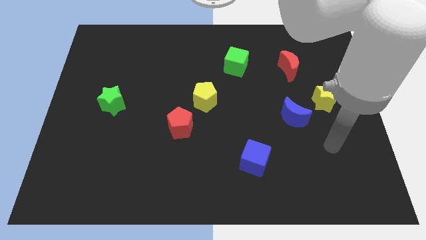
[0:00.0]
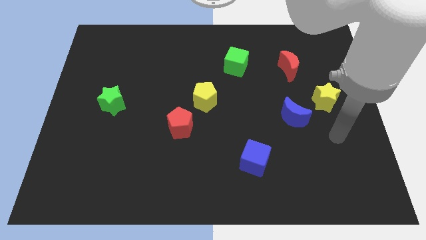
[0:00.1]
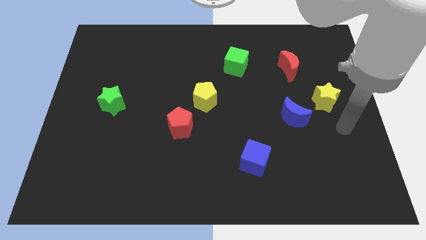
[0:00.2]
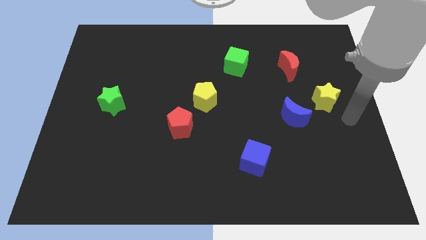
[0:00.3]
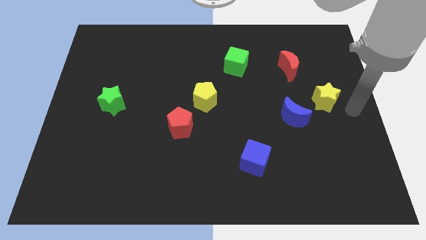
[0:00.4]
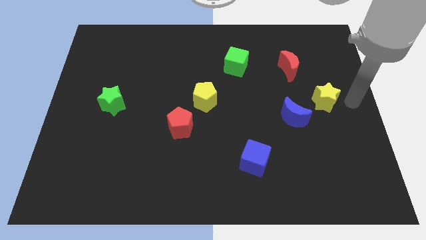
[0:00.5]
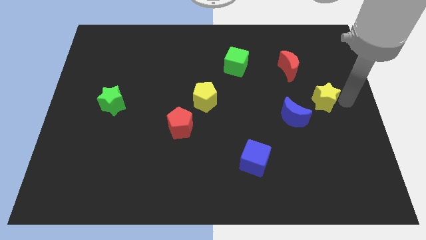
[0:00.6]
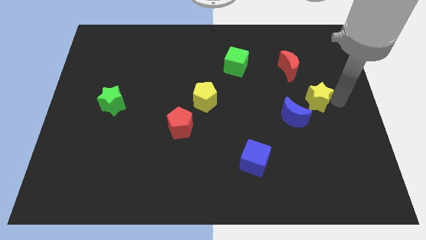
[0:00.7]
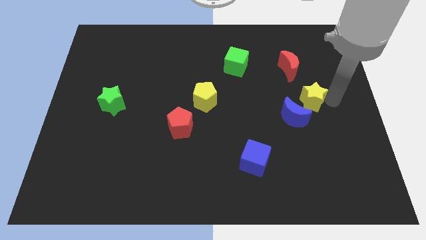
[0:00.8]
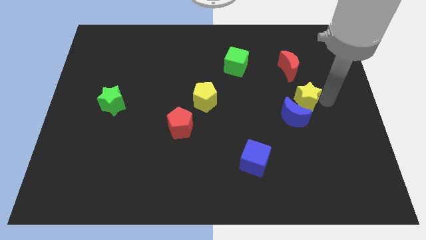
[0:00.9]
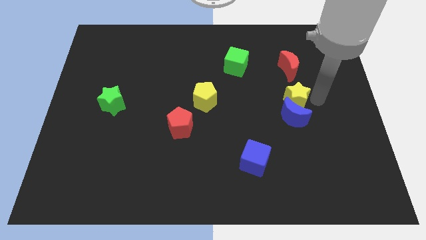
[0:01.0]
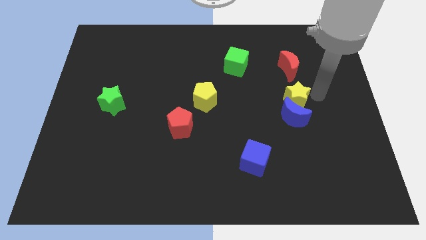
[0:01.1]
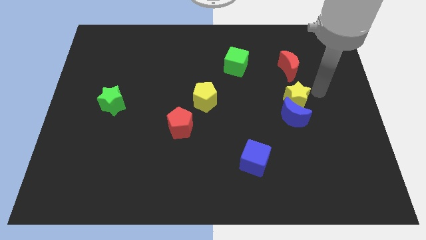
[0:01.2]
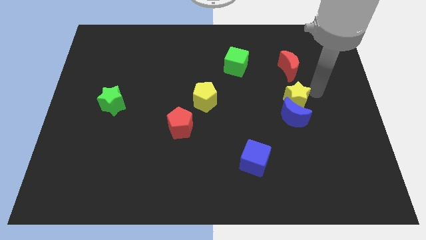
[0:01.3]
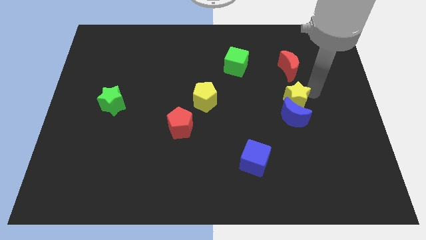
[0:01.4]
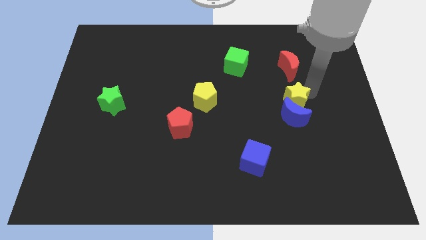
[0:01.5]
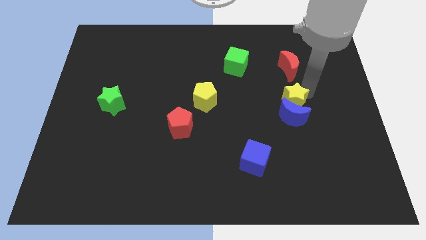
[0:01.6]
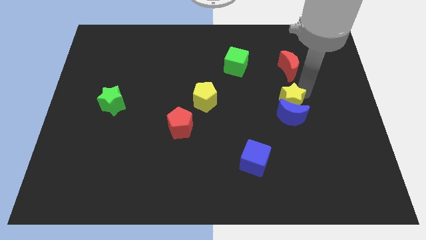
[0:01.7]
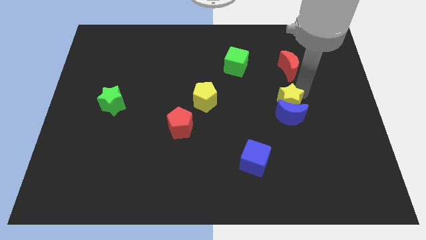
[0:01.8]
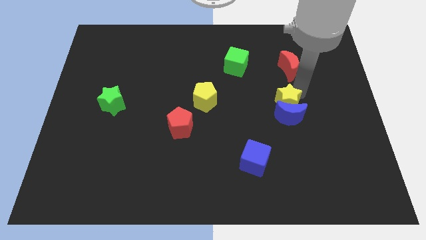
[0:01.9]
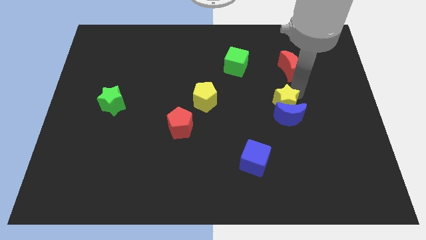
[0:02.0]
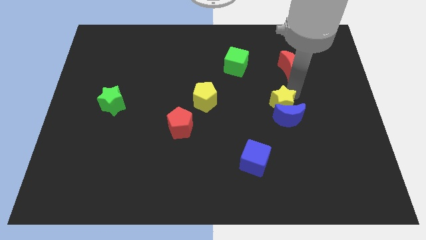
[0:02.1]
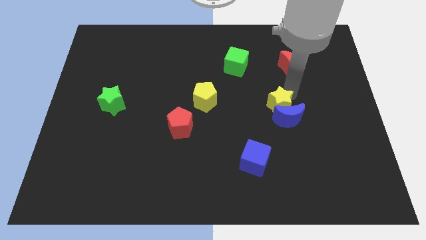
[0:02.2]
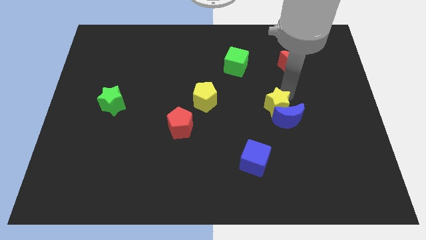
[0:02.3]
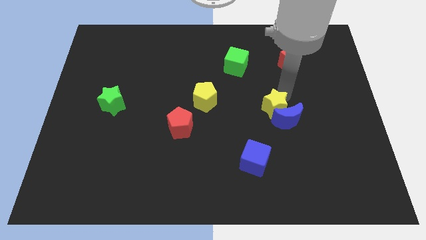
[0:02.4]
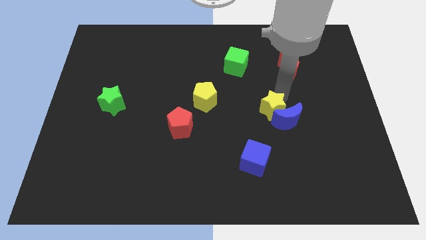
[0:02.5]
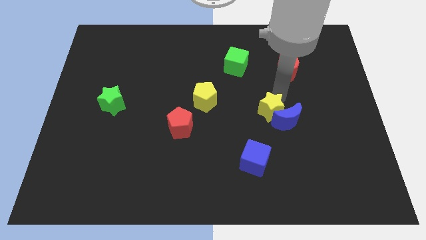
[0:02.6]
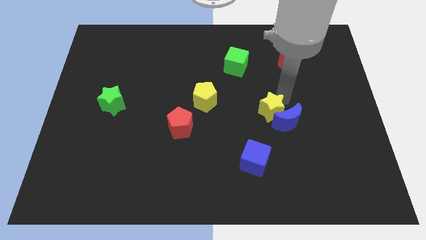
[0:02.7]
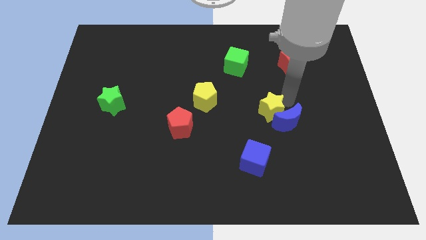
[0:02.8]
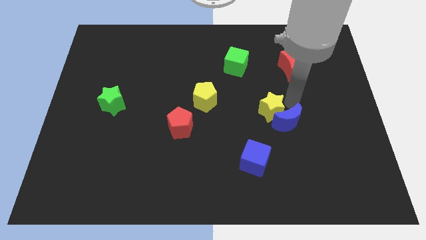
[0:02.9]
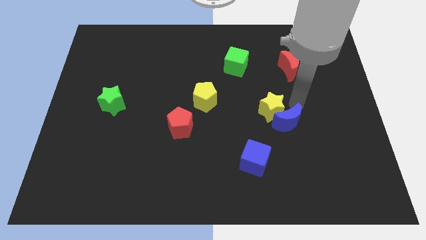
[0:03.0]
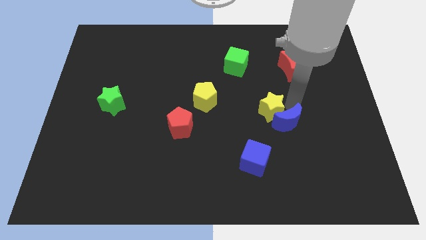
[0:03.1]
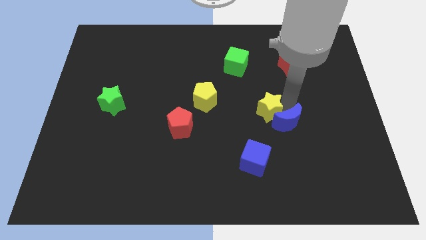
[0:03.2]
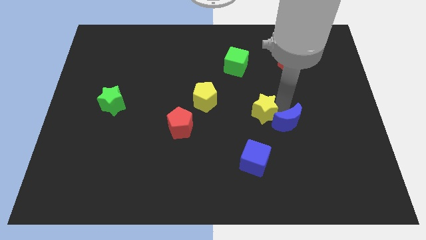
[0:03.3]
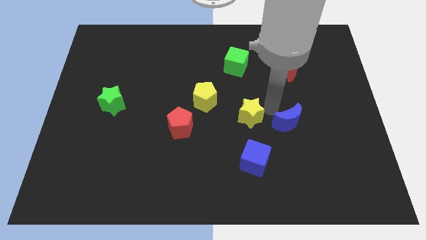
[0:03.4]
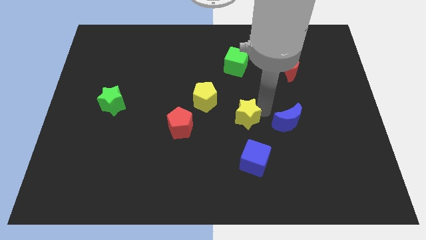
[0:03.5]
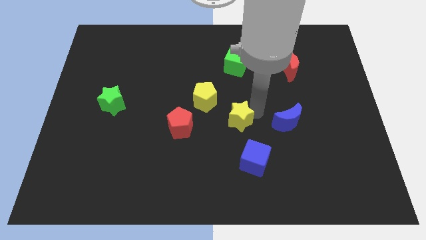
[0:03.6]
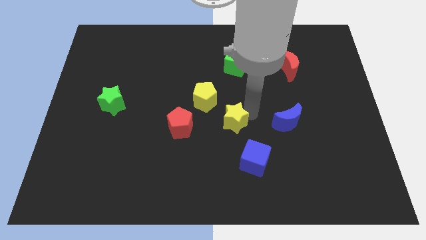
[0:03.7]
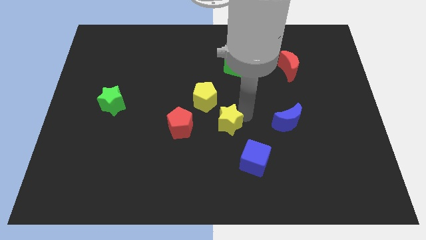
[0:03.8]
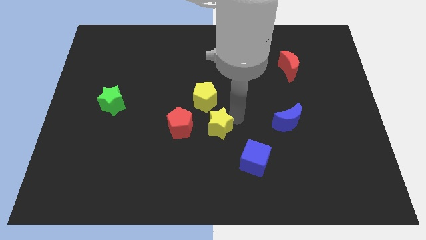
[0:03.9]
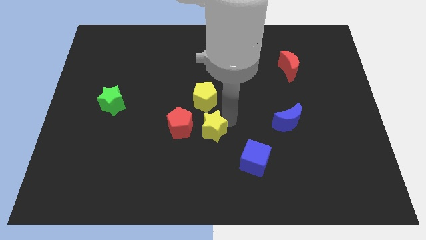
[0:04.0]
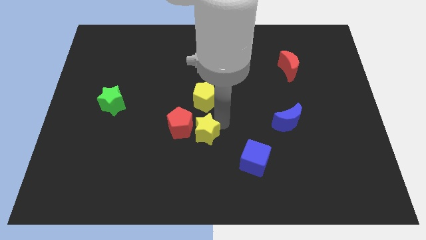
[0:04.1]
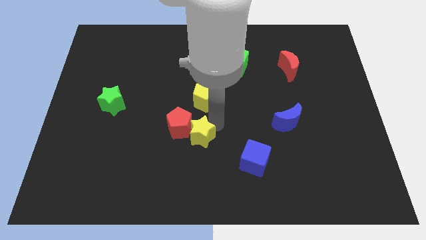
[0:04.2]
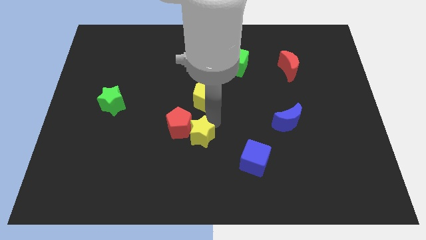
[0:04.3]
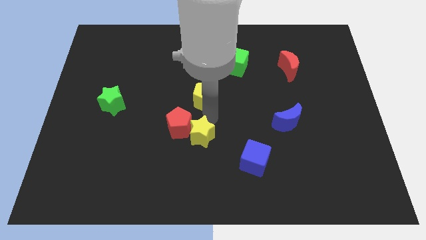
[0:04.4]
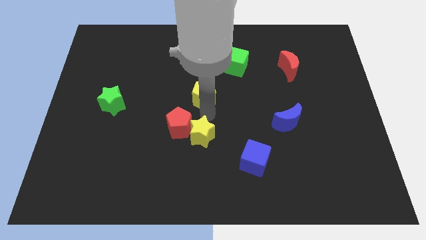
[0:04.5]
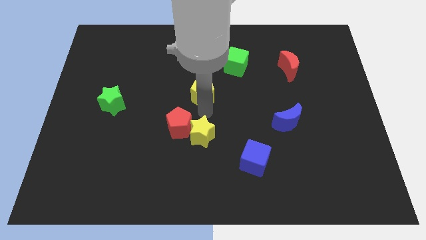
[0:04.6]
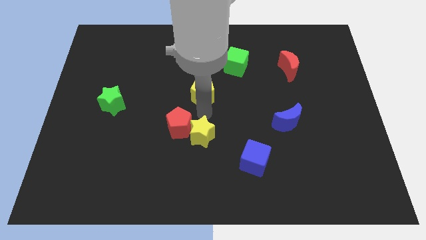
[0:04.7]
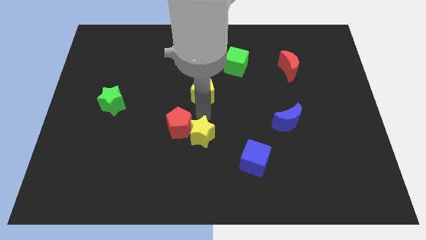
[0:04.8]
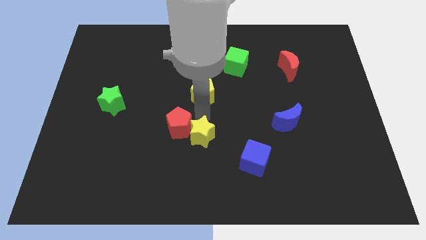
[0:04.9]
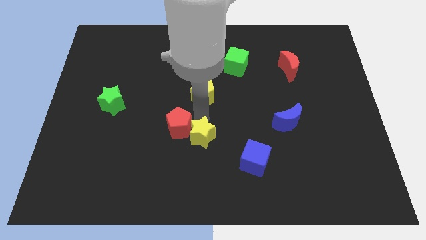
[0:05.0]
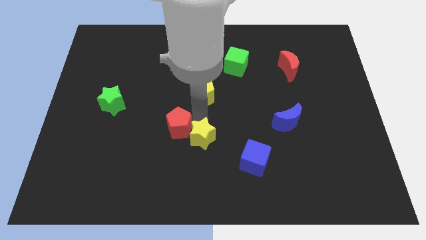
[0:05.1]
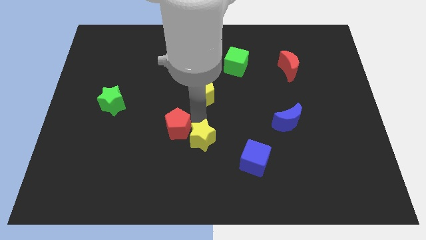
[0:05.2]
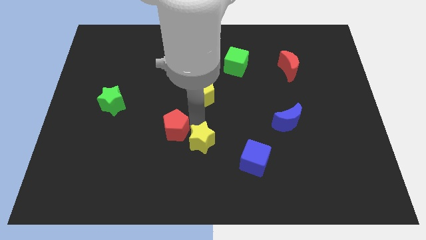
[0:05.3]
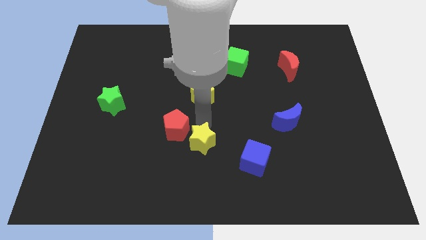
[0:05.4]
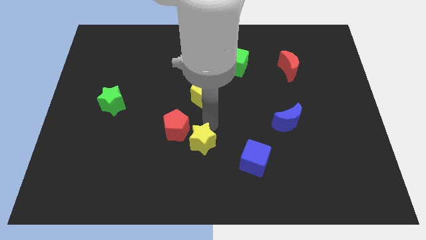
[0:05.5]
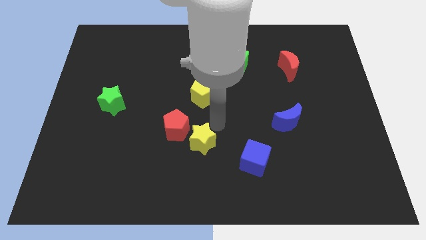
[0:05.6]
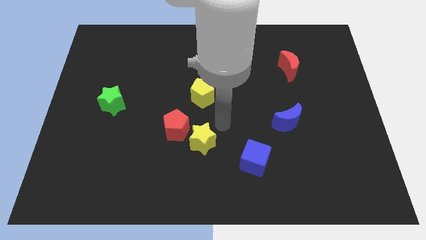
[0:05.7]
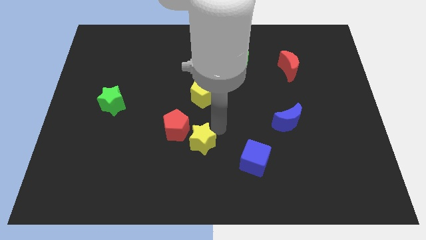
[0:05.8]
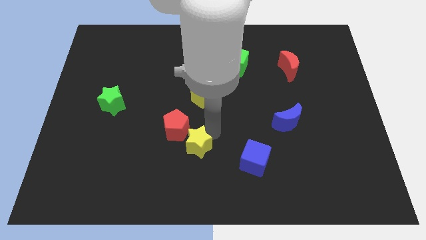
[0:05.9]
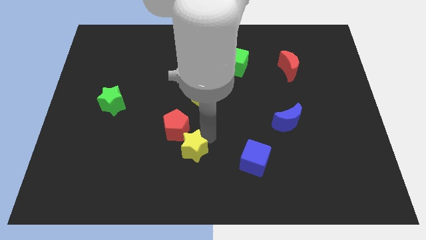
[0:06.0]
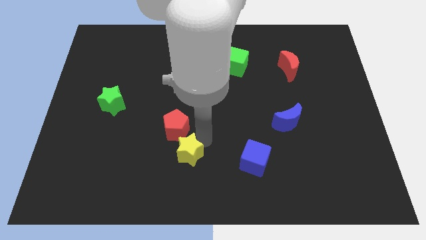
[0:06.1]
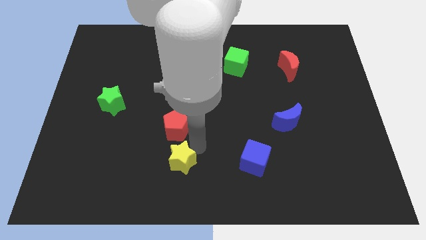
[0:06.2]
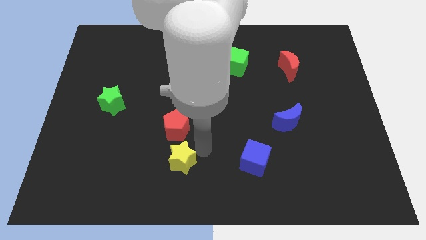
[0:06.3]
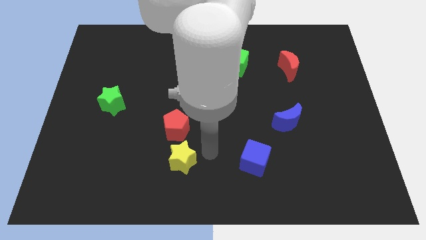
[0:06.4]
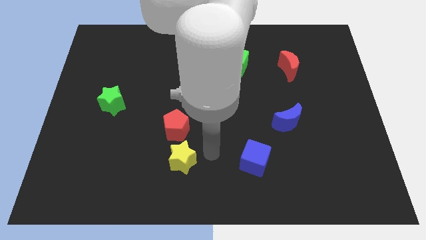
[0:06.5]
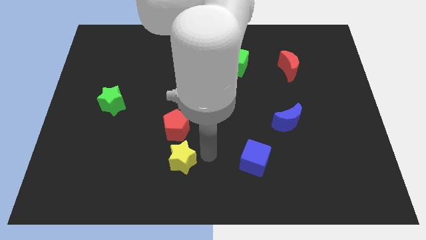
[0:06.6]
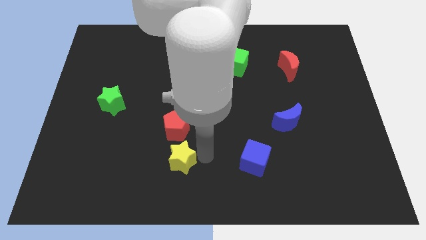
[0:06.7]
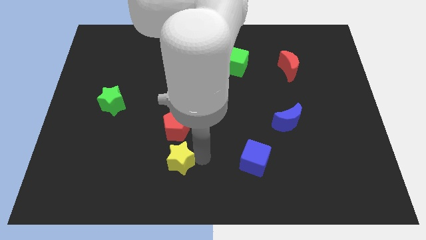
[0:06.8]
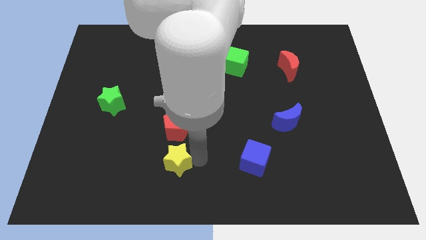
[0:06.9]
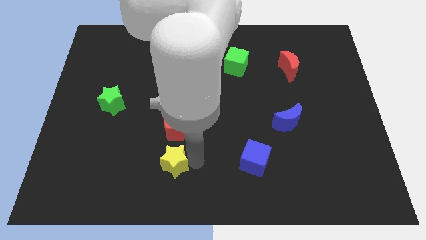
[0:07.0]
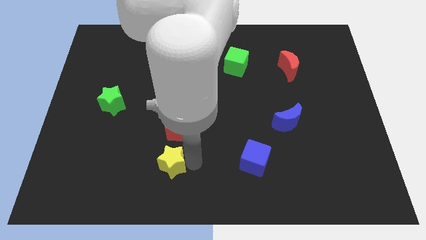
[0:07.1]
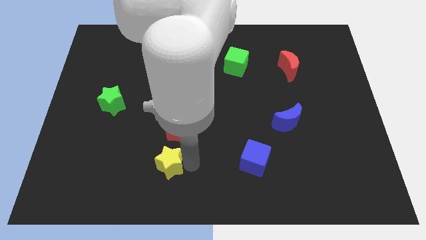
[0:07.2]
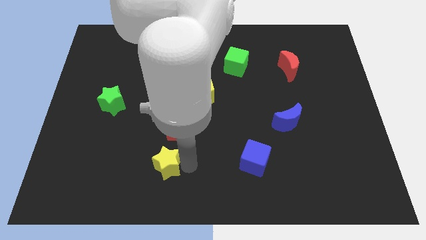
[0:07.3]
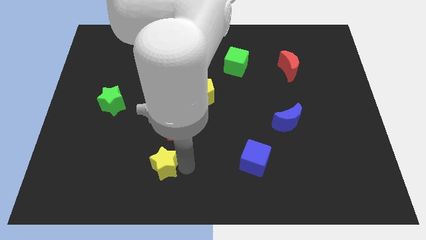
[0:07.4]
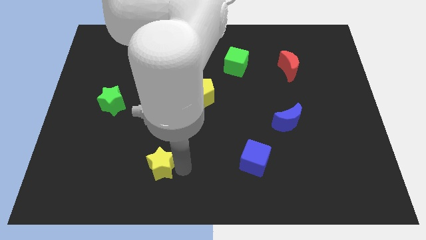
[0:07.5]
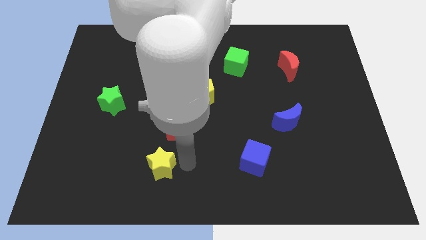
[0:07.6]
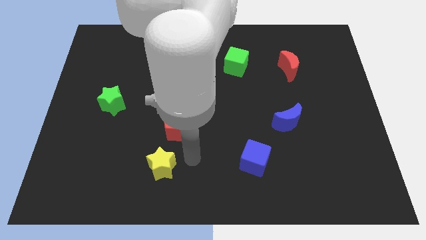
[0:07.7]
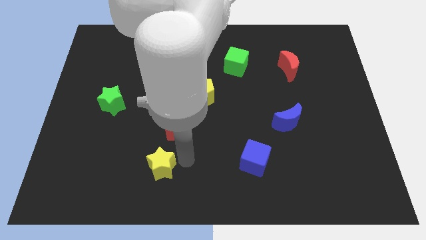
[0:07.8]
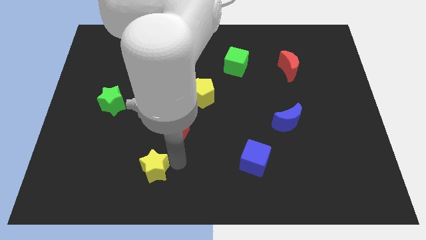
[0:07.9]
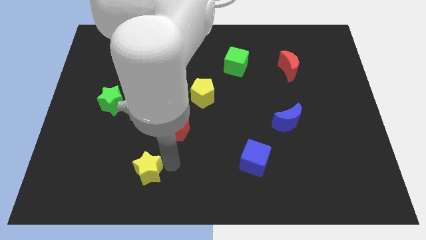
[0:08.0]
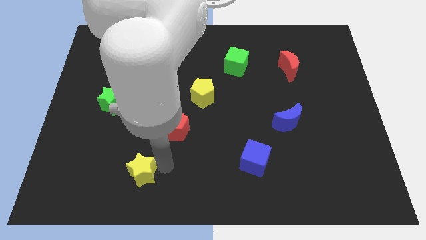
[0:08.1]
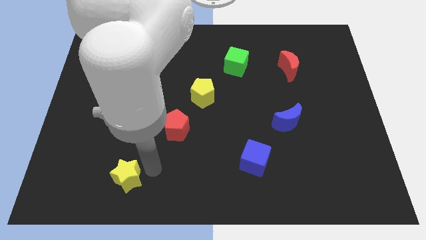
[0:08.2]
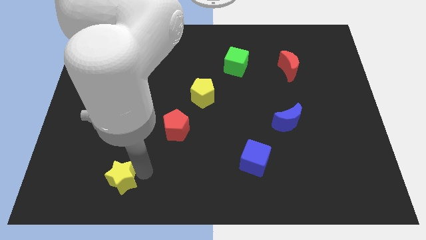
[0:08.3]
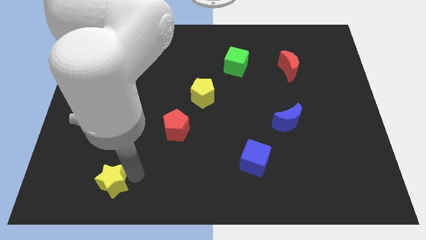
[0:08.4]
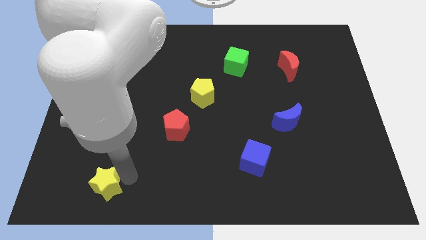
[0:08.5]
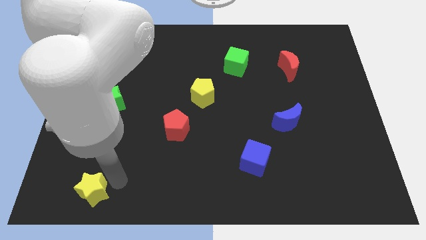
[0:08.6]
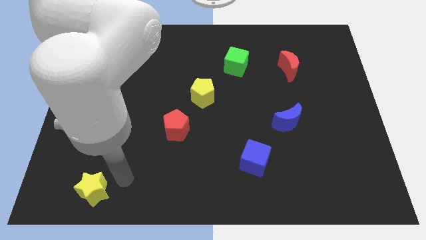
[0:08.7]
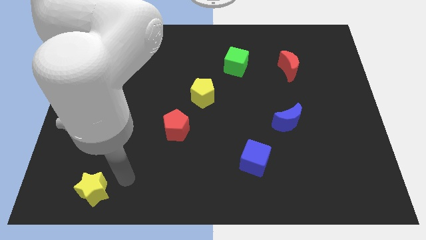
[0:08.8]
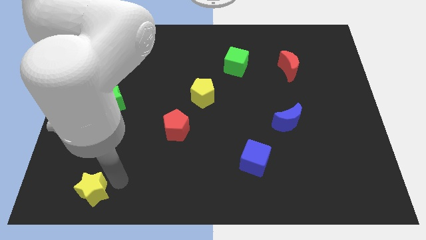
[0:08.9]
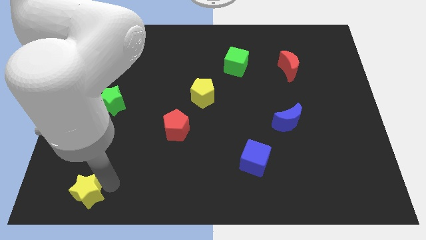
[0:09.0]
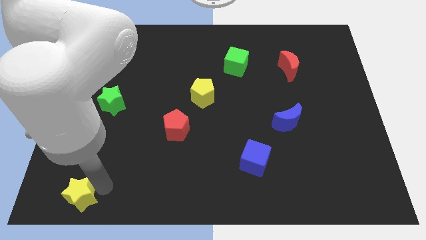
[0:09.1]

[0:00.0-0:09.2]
push the yellow star to the bottom left corner
